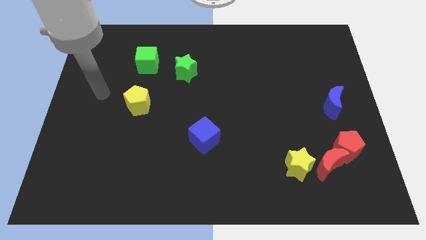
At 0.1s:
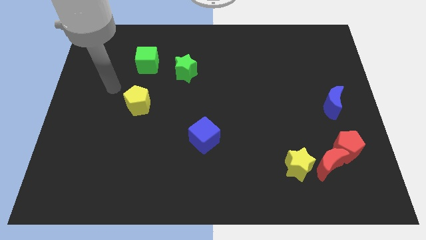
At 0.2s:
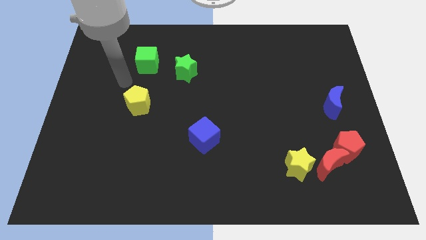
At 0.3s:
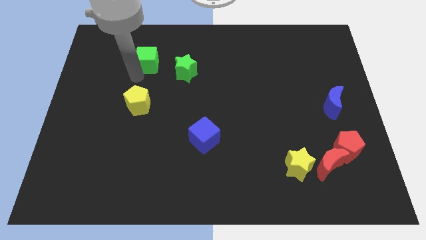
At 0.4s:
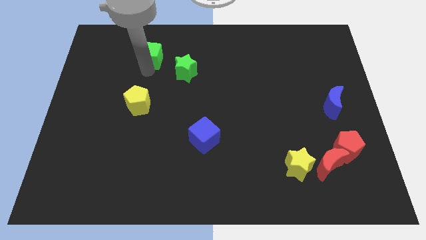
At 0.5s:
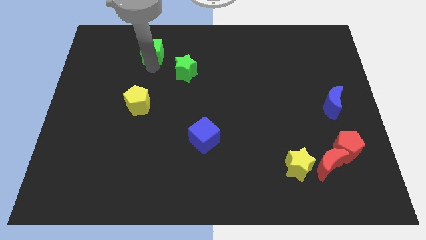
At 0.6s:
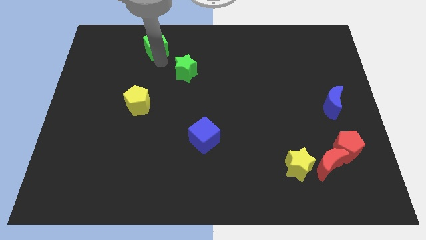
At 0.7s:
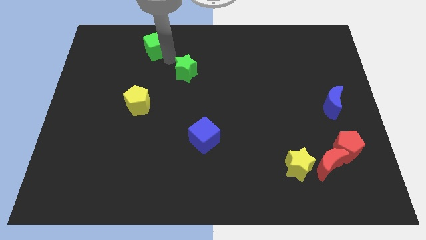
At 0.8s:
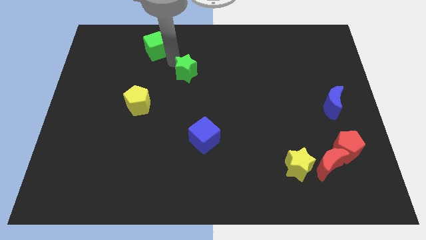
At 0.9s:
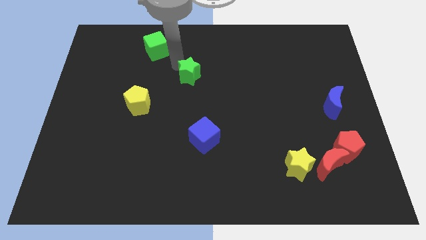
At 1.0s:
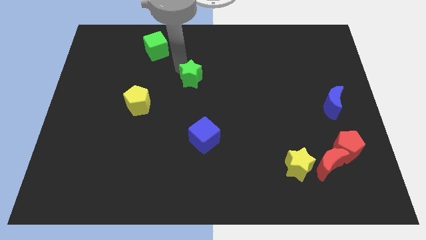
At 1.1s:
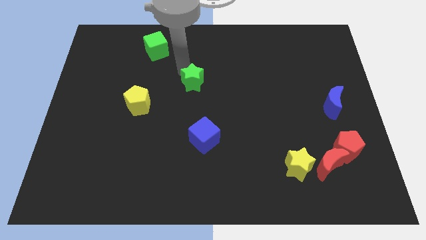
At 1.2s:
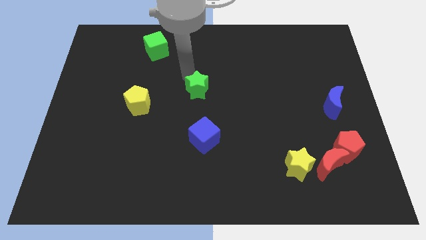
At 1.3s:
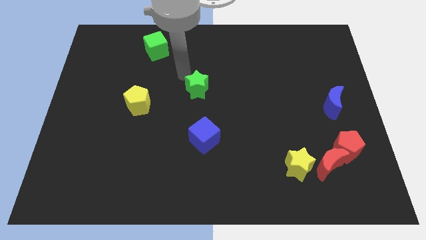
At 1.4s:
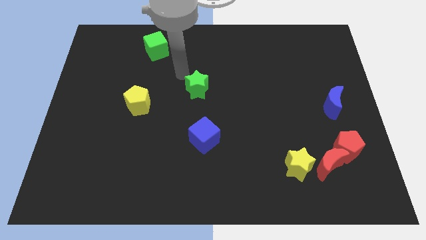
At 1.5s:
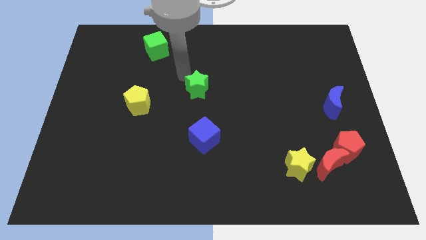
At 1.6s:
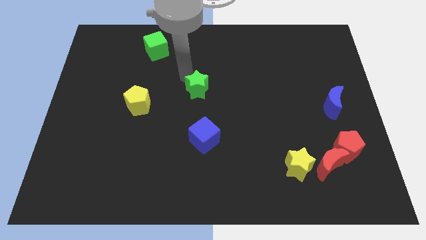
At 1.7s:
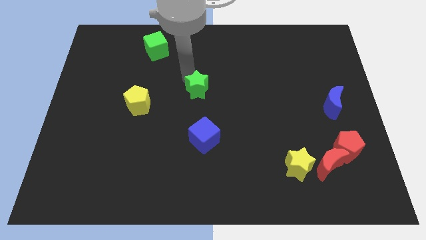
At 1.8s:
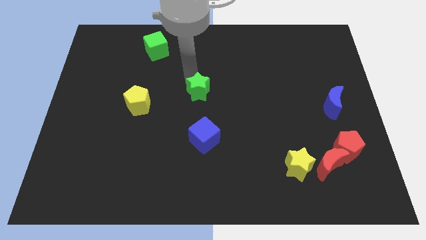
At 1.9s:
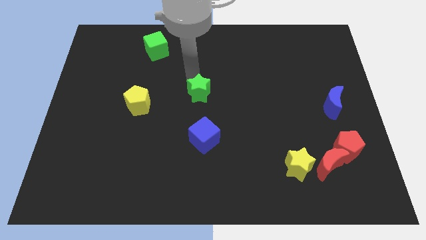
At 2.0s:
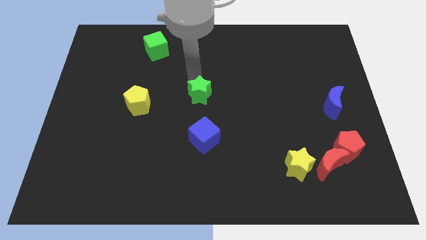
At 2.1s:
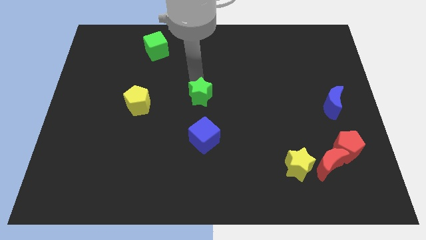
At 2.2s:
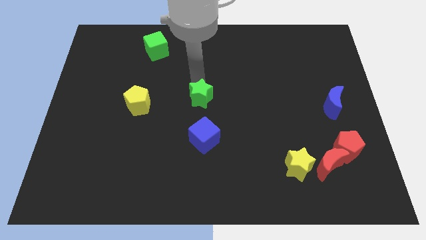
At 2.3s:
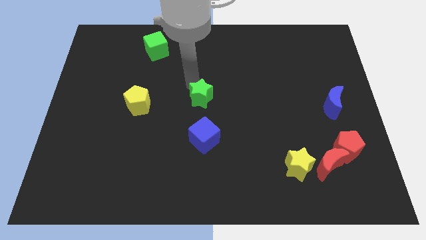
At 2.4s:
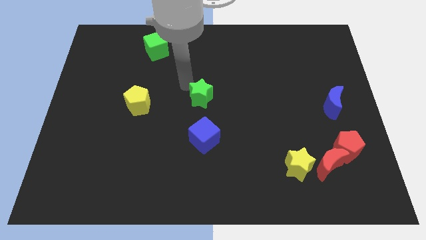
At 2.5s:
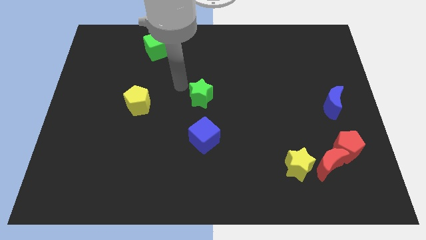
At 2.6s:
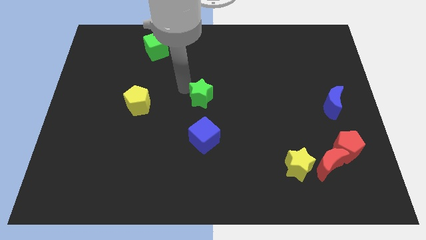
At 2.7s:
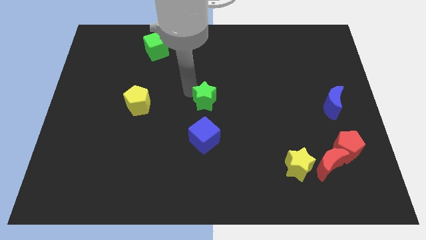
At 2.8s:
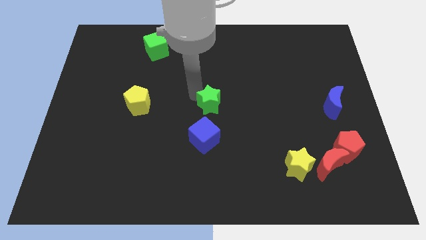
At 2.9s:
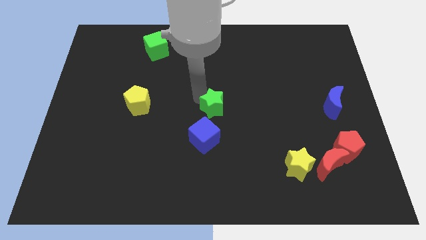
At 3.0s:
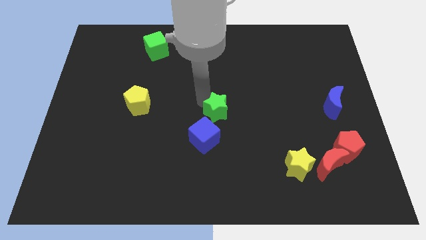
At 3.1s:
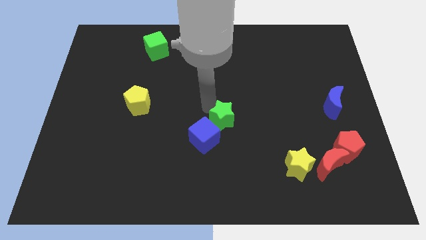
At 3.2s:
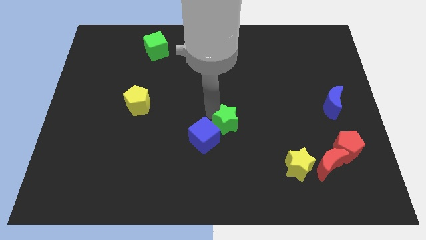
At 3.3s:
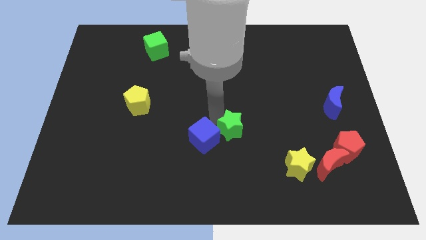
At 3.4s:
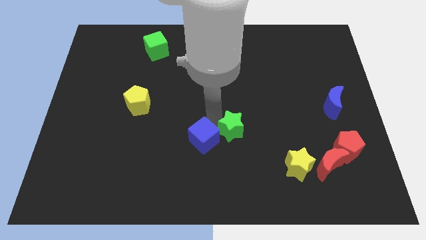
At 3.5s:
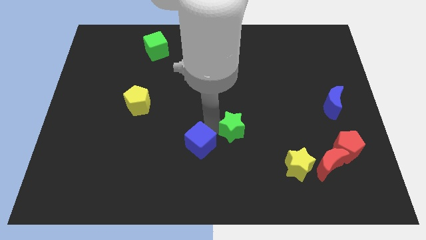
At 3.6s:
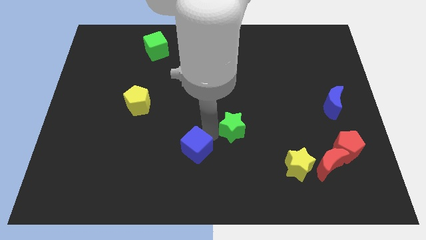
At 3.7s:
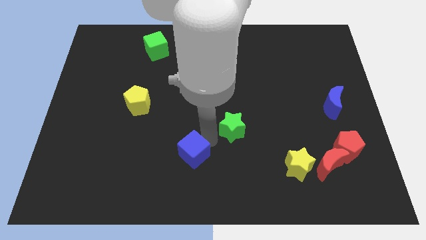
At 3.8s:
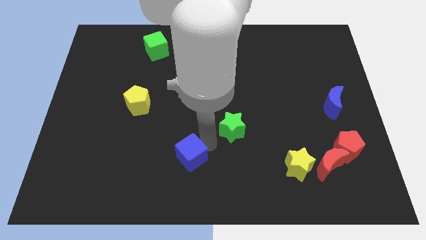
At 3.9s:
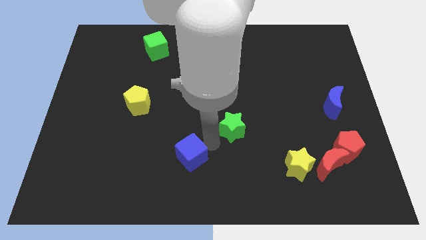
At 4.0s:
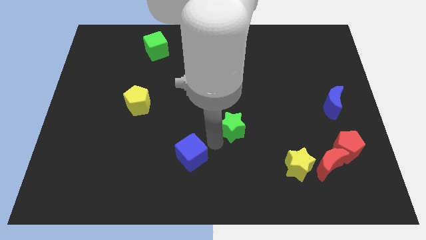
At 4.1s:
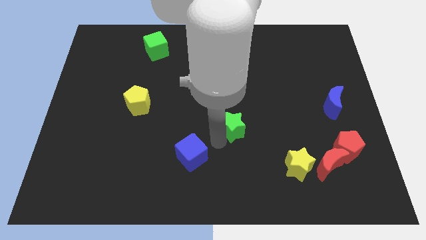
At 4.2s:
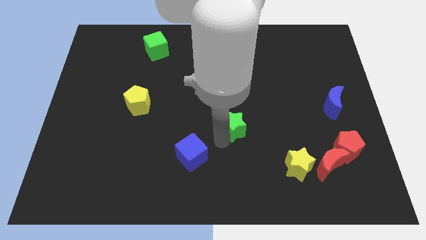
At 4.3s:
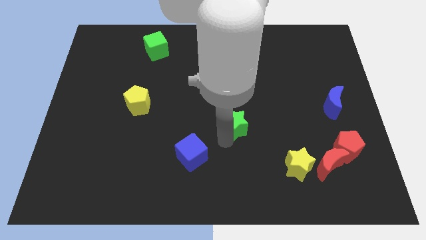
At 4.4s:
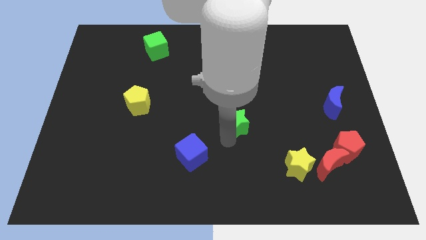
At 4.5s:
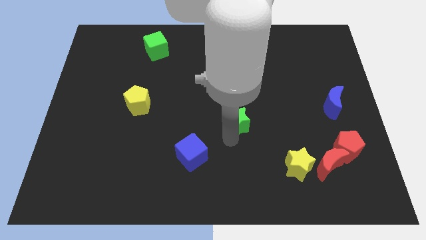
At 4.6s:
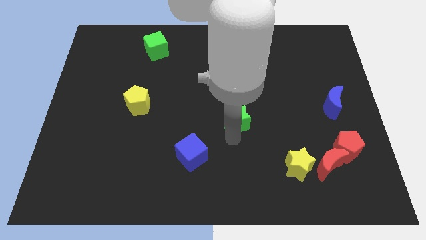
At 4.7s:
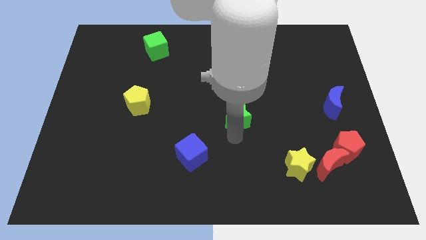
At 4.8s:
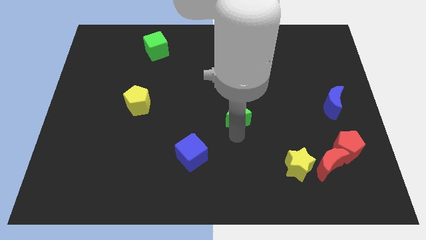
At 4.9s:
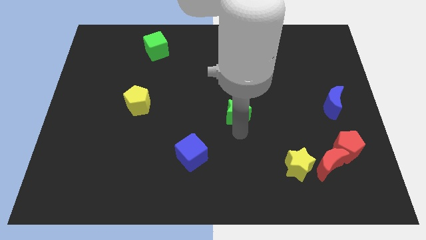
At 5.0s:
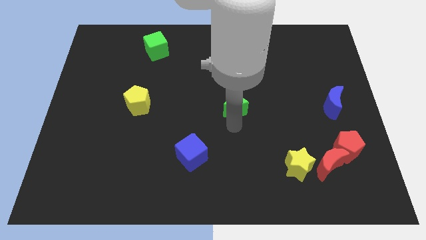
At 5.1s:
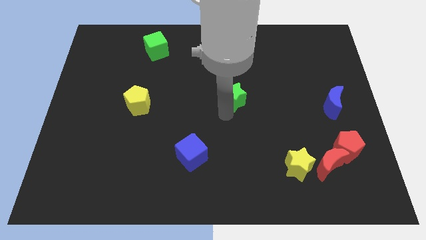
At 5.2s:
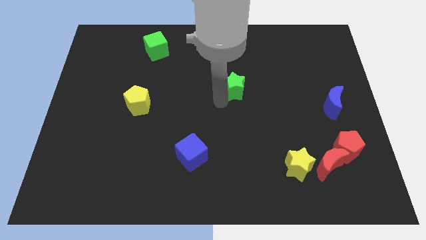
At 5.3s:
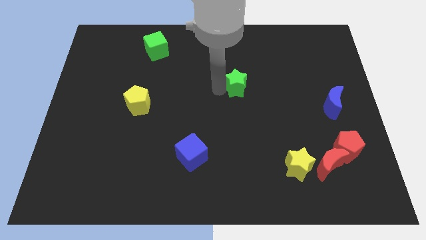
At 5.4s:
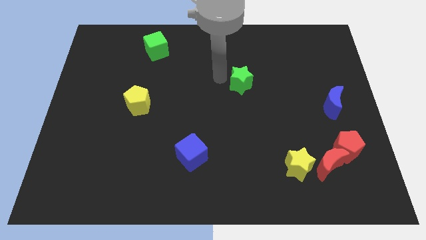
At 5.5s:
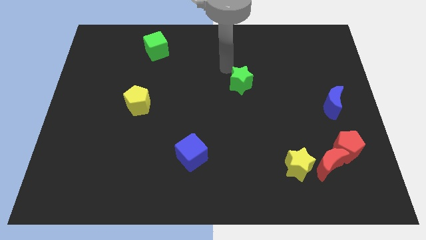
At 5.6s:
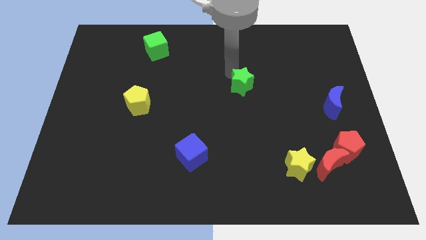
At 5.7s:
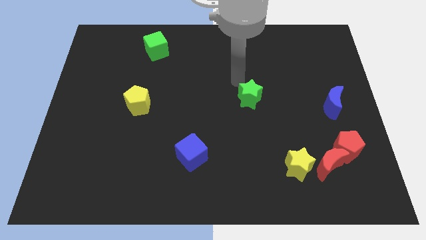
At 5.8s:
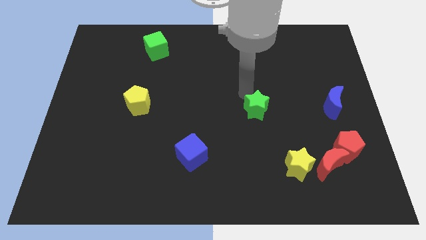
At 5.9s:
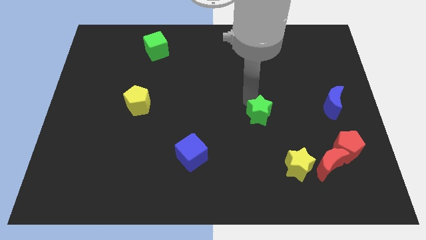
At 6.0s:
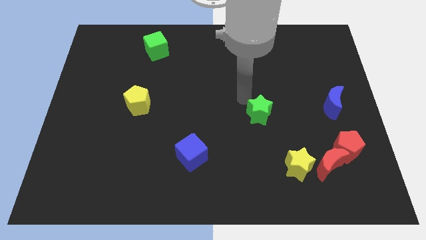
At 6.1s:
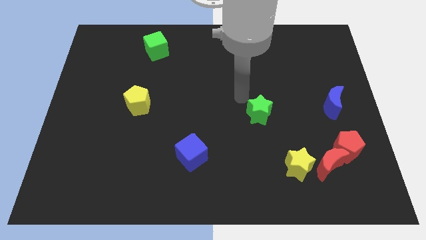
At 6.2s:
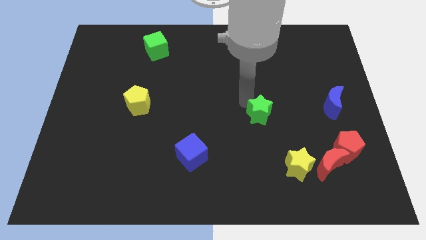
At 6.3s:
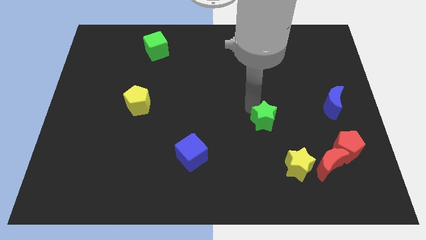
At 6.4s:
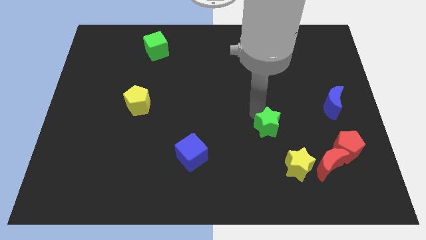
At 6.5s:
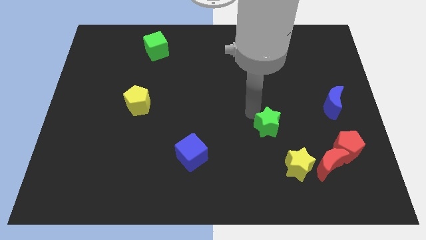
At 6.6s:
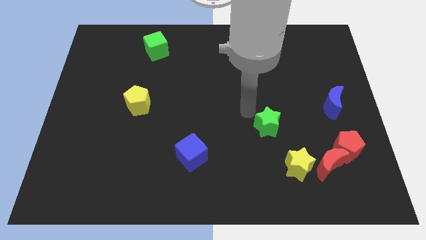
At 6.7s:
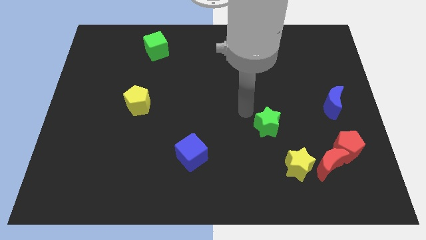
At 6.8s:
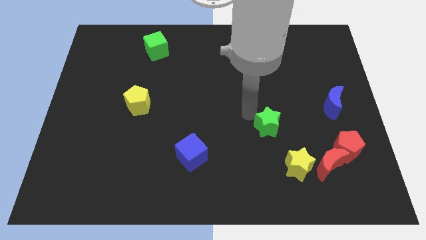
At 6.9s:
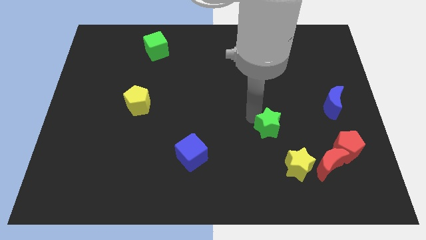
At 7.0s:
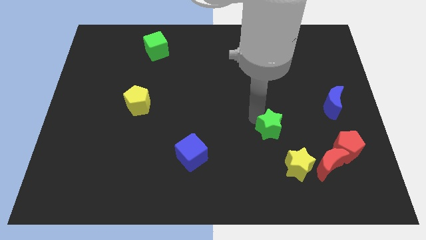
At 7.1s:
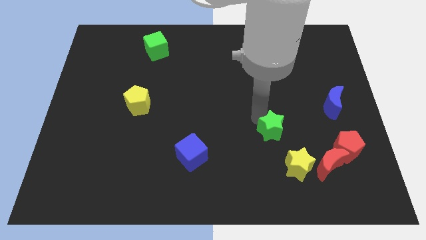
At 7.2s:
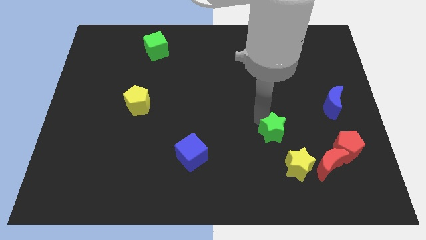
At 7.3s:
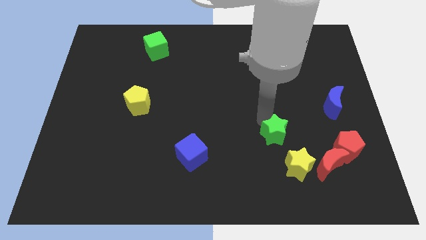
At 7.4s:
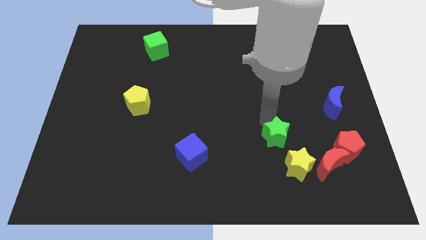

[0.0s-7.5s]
move the green star just left of the red pentagon
